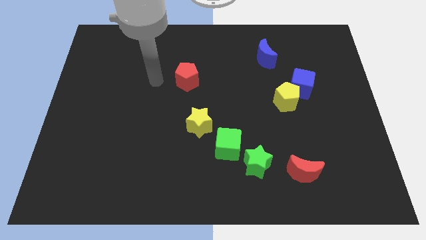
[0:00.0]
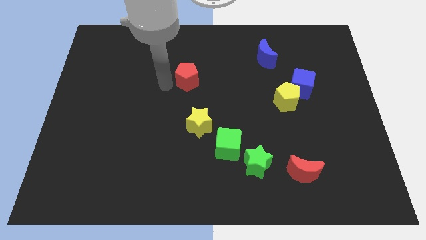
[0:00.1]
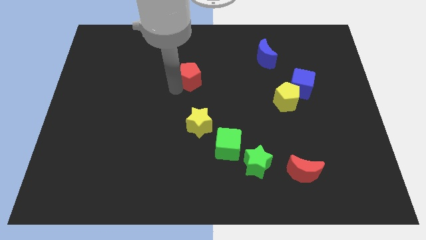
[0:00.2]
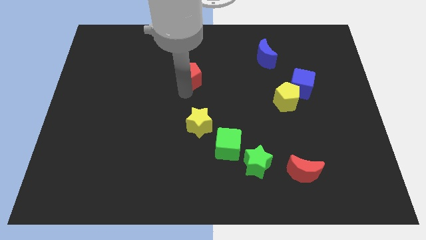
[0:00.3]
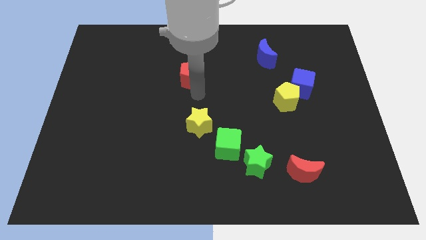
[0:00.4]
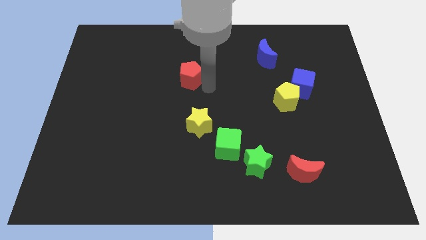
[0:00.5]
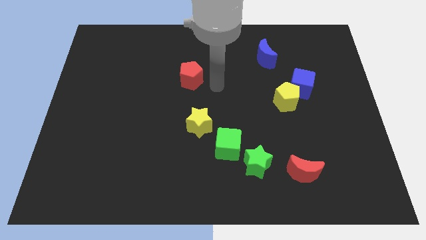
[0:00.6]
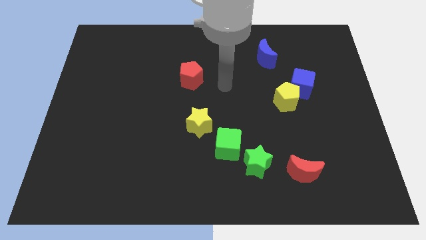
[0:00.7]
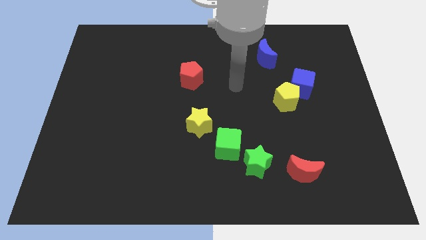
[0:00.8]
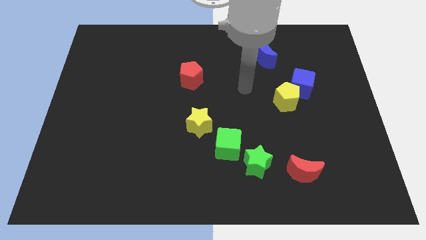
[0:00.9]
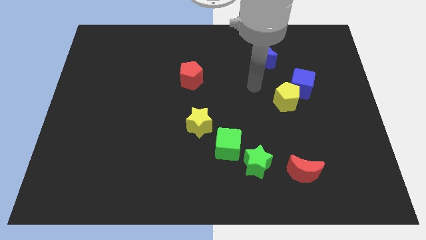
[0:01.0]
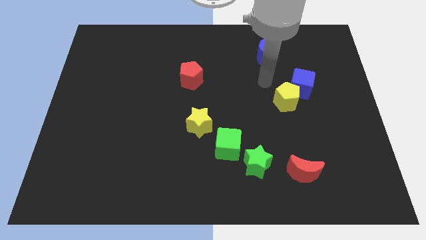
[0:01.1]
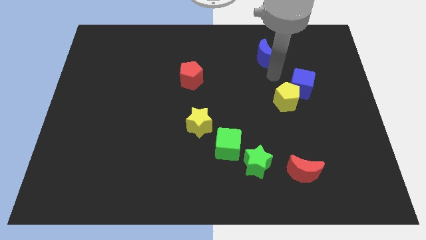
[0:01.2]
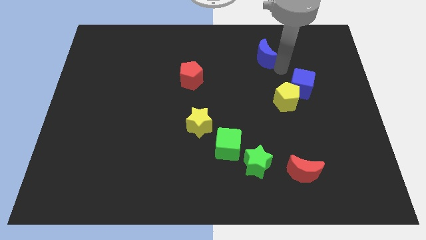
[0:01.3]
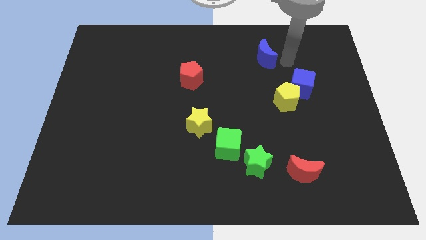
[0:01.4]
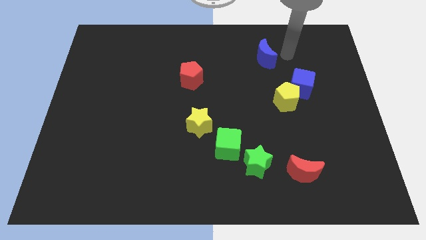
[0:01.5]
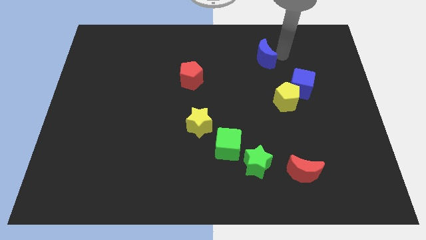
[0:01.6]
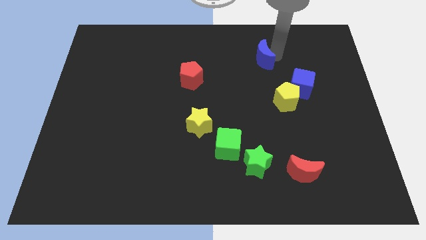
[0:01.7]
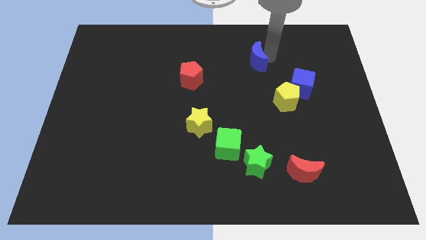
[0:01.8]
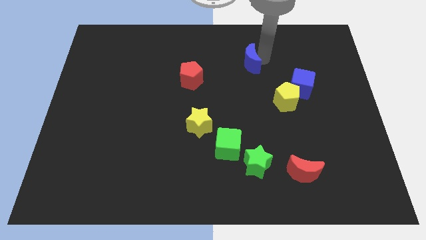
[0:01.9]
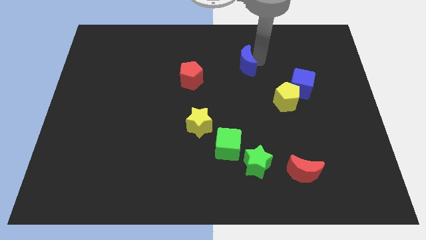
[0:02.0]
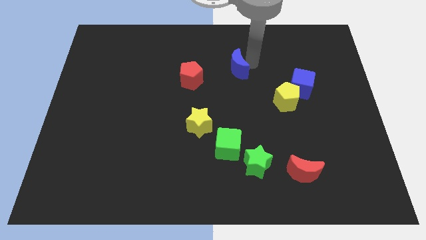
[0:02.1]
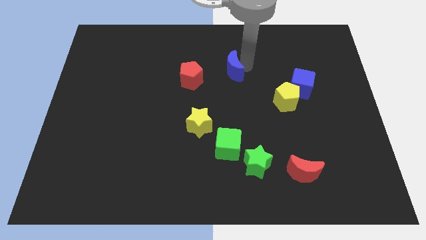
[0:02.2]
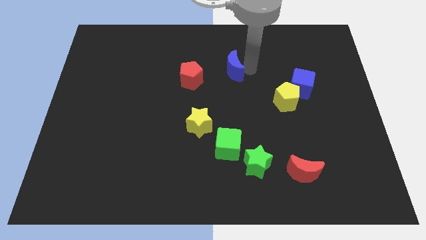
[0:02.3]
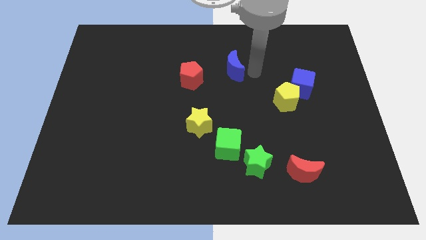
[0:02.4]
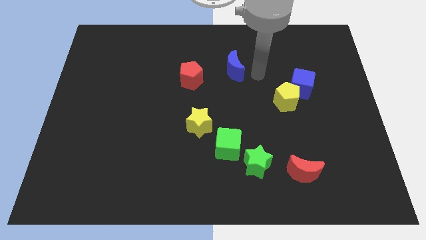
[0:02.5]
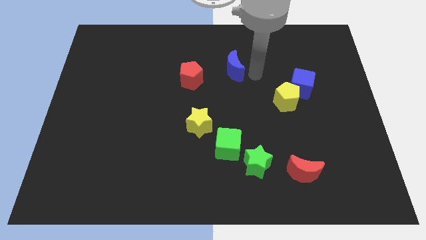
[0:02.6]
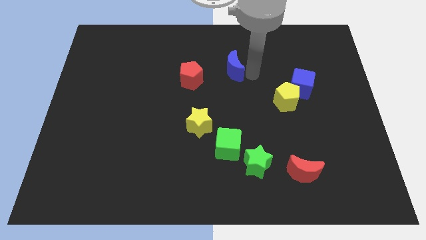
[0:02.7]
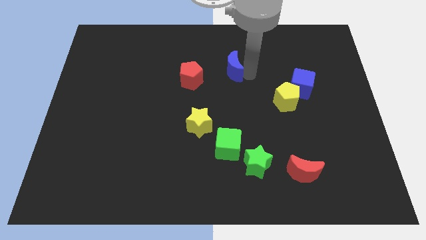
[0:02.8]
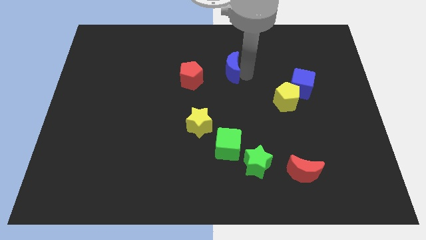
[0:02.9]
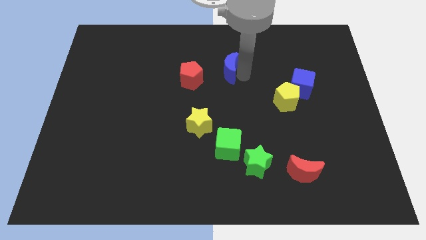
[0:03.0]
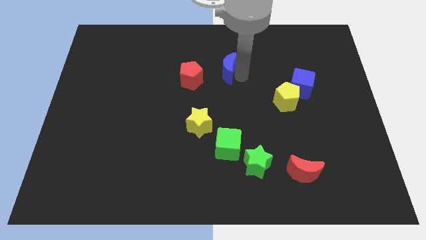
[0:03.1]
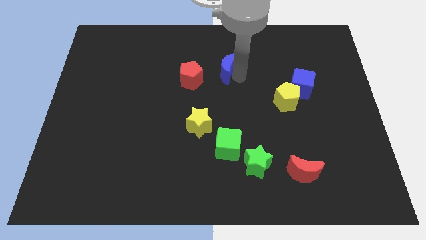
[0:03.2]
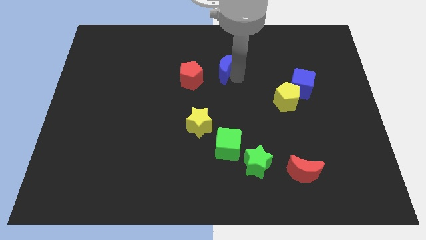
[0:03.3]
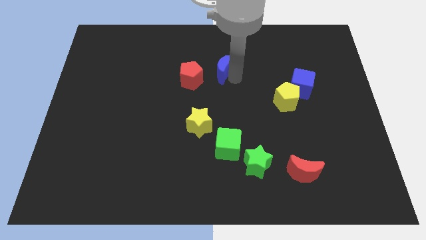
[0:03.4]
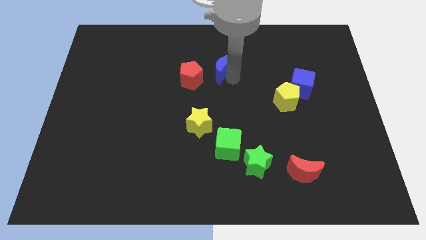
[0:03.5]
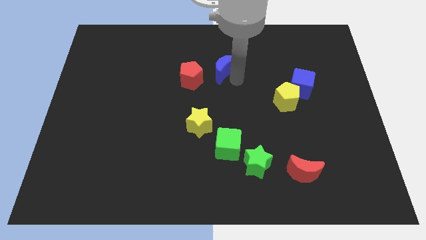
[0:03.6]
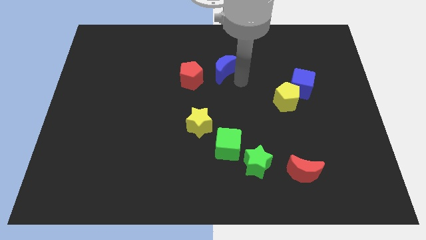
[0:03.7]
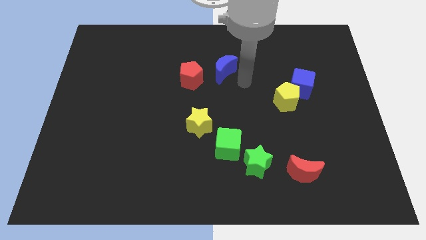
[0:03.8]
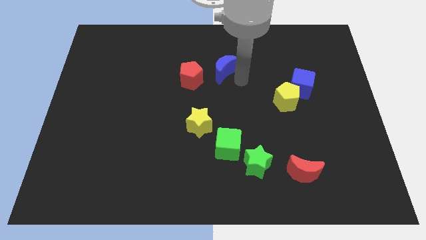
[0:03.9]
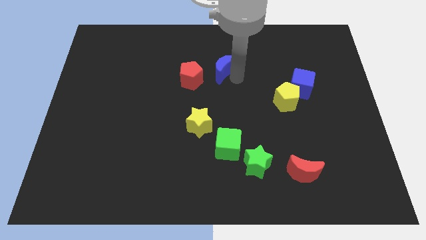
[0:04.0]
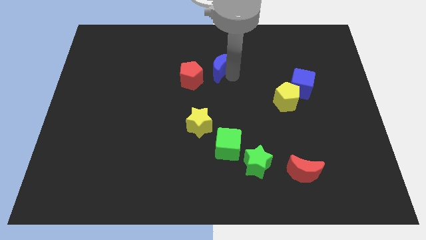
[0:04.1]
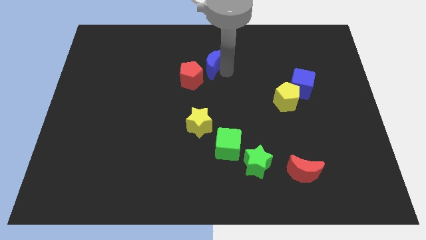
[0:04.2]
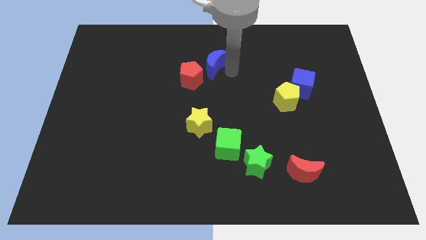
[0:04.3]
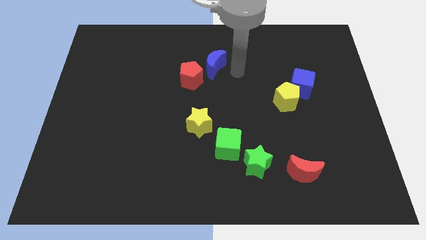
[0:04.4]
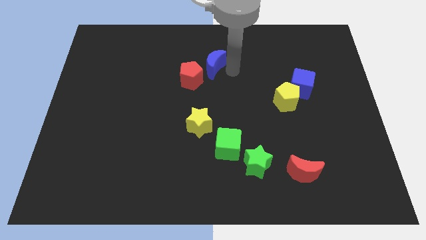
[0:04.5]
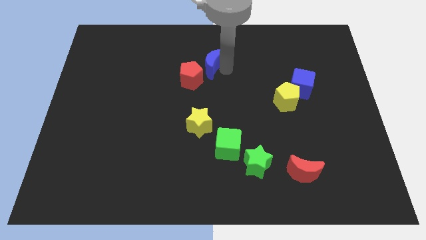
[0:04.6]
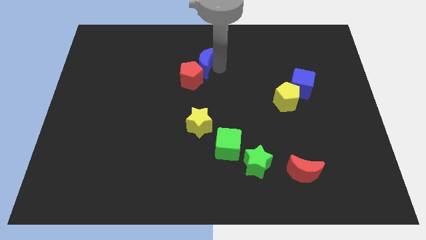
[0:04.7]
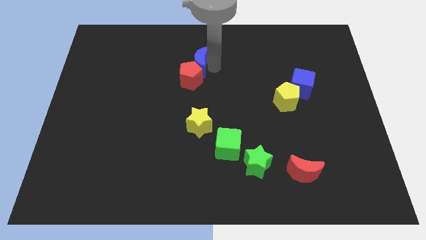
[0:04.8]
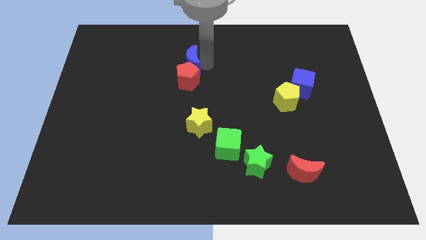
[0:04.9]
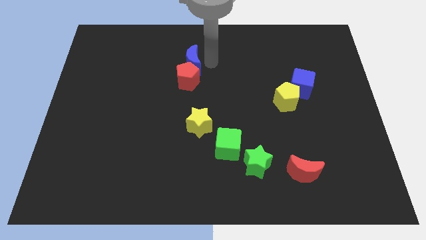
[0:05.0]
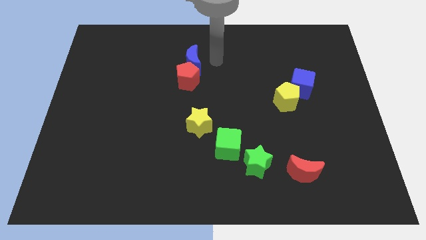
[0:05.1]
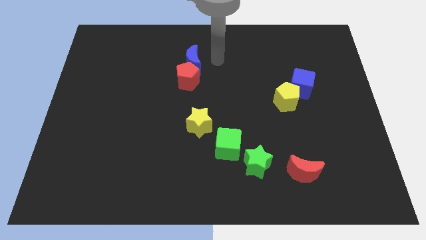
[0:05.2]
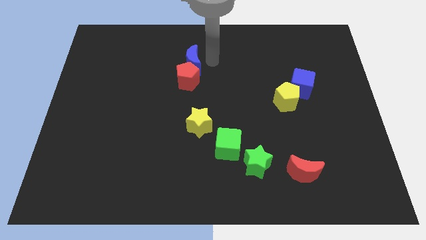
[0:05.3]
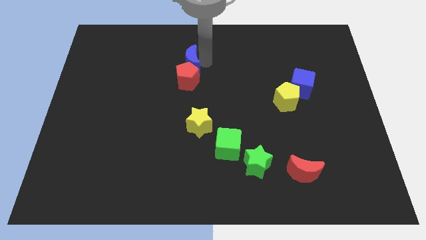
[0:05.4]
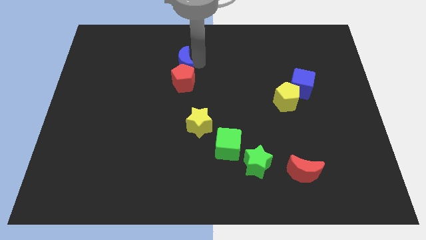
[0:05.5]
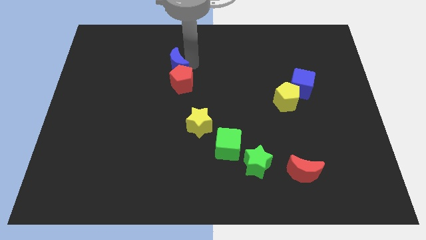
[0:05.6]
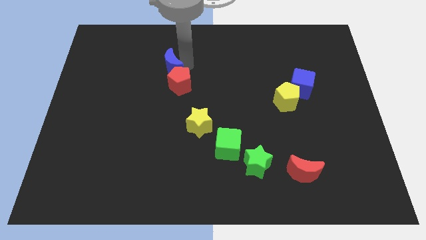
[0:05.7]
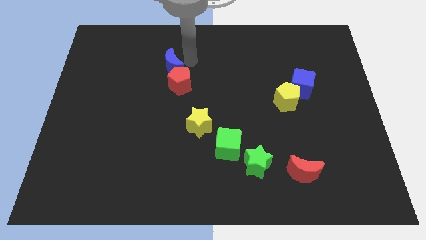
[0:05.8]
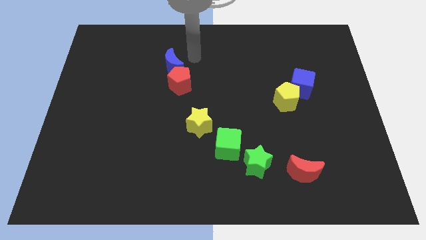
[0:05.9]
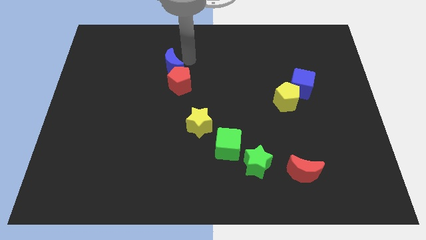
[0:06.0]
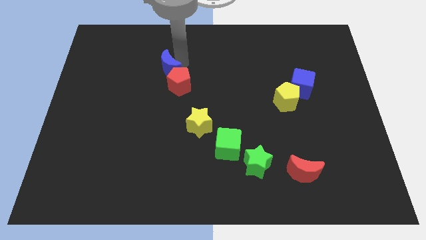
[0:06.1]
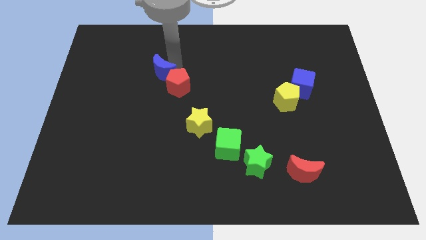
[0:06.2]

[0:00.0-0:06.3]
move the blue moon just left of the red pentagon

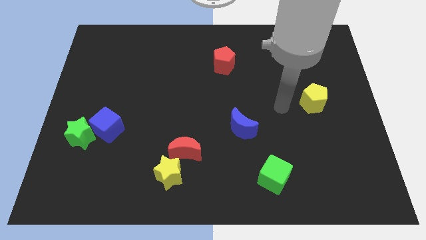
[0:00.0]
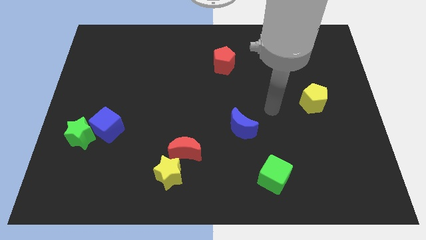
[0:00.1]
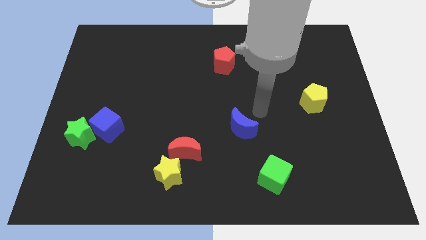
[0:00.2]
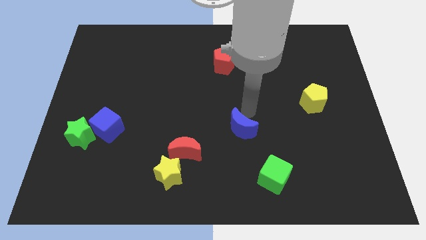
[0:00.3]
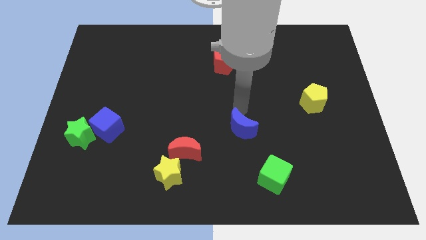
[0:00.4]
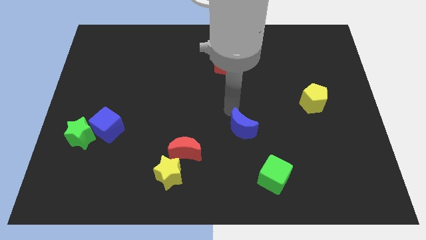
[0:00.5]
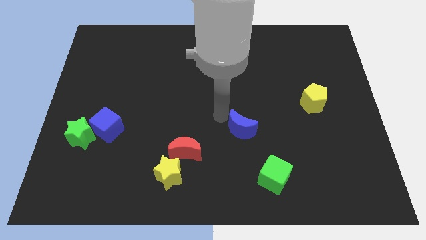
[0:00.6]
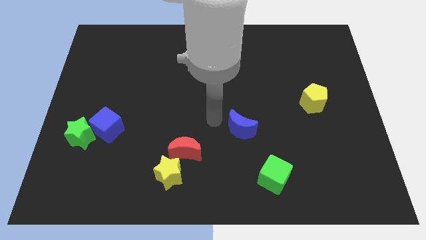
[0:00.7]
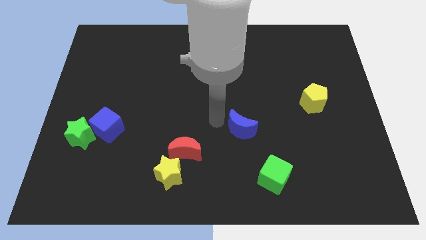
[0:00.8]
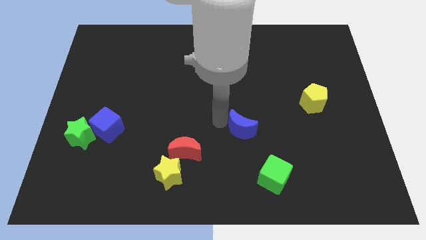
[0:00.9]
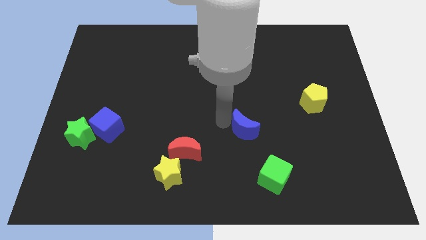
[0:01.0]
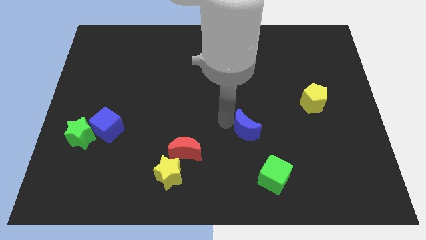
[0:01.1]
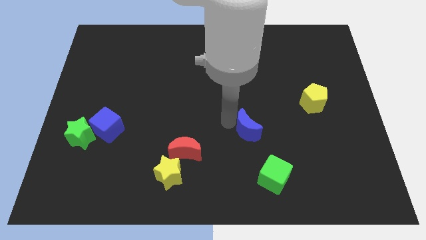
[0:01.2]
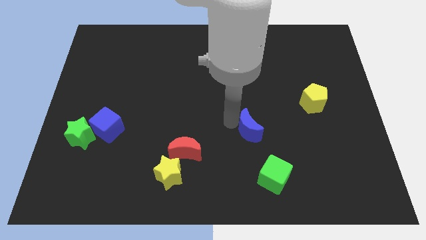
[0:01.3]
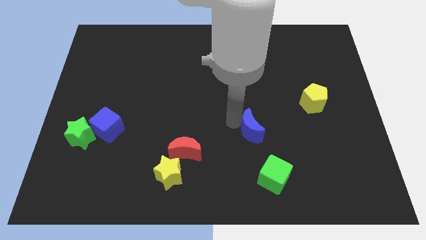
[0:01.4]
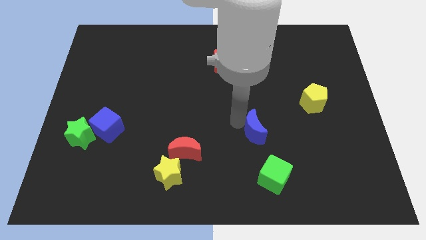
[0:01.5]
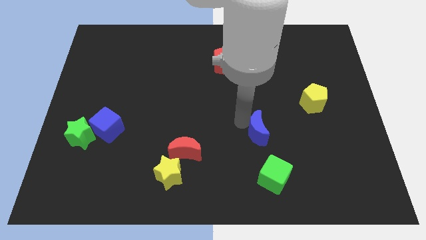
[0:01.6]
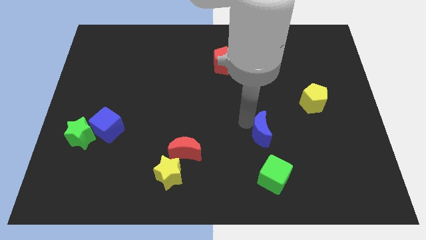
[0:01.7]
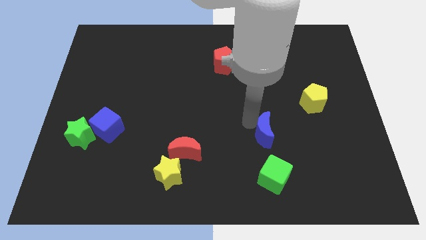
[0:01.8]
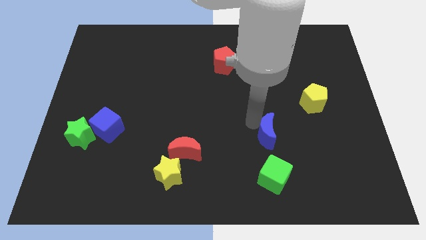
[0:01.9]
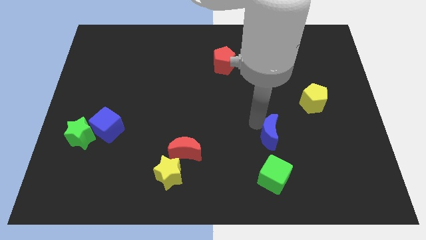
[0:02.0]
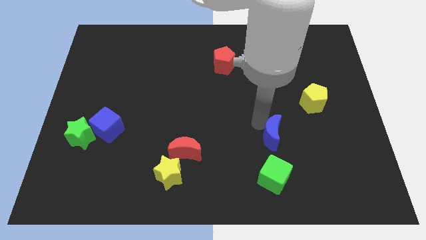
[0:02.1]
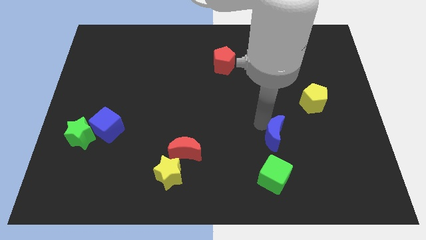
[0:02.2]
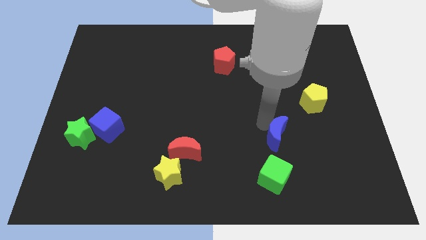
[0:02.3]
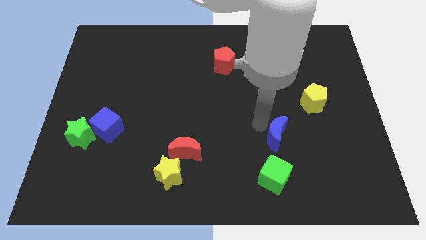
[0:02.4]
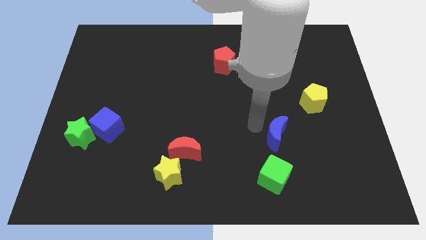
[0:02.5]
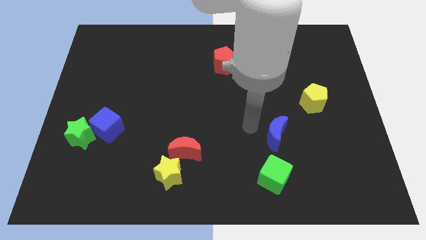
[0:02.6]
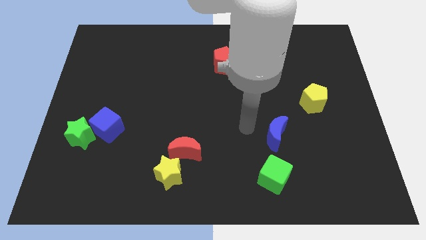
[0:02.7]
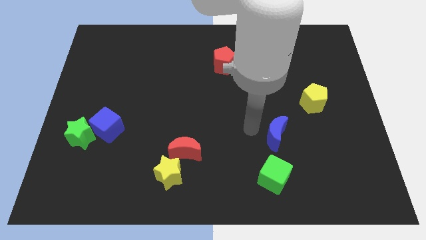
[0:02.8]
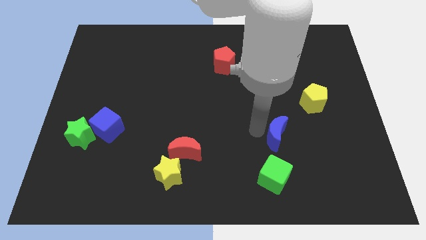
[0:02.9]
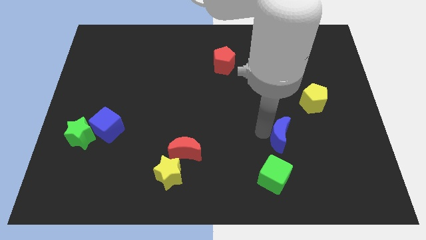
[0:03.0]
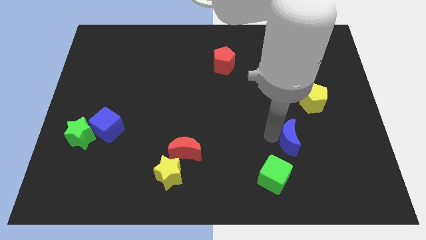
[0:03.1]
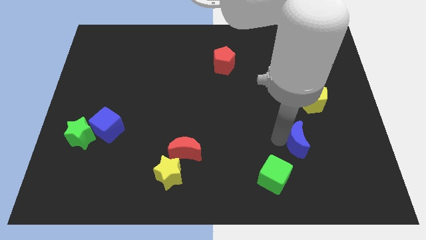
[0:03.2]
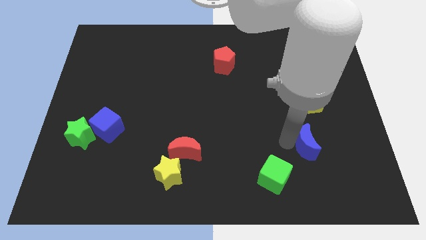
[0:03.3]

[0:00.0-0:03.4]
slide the blue moon below the yellow pentagon
